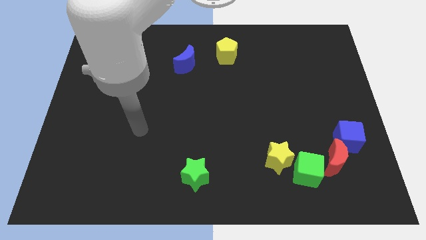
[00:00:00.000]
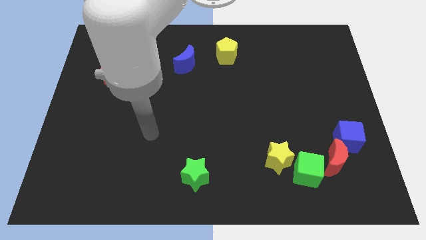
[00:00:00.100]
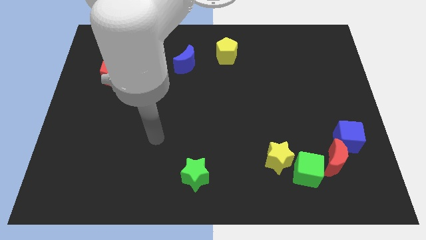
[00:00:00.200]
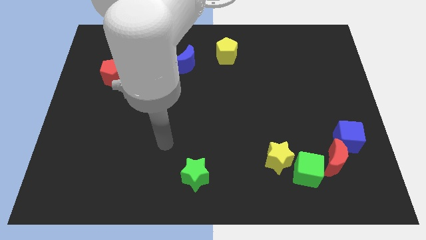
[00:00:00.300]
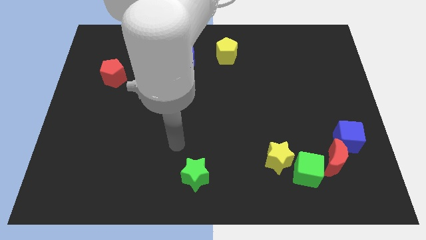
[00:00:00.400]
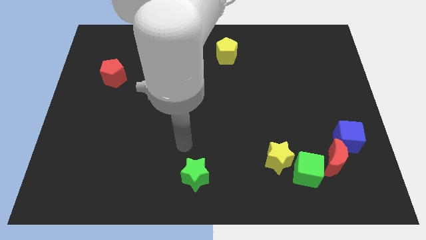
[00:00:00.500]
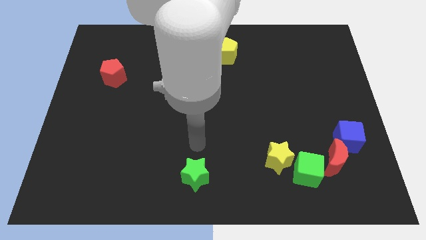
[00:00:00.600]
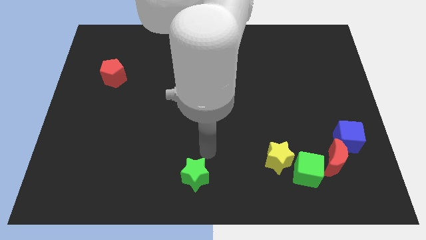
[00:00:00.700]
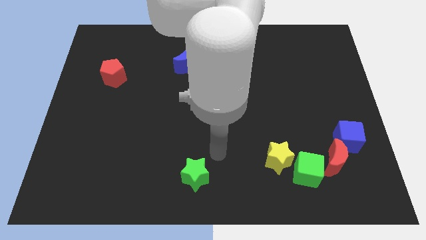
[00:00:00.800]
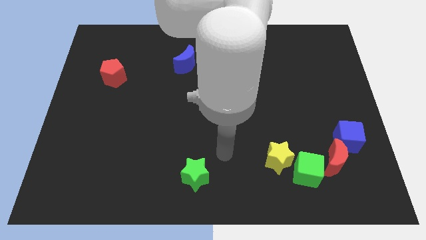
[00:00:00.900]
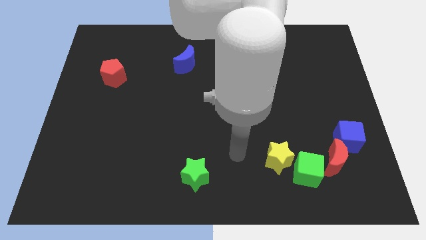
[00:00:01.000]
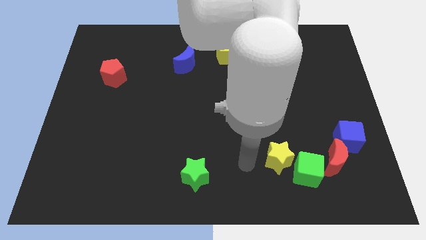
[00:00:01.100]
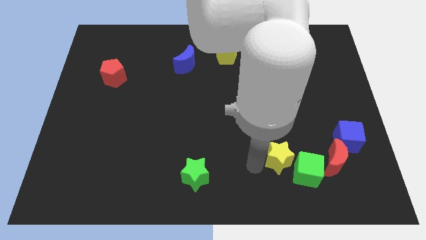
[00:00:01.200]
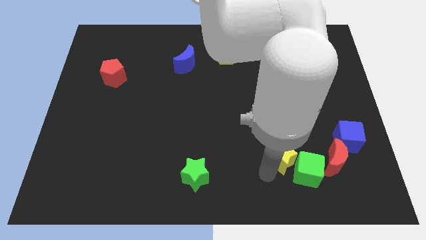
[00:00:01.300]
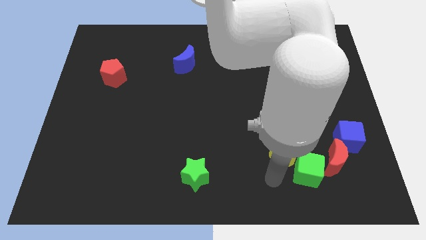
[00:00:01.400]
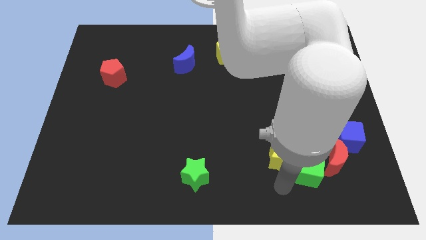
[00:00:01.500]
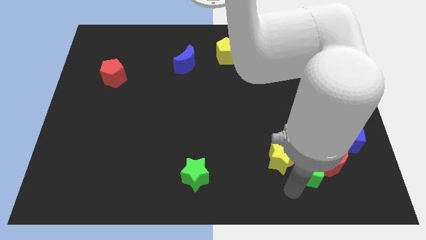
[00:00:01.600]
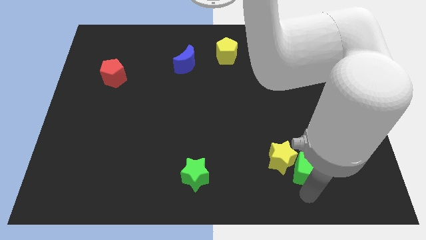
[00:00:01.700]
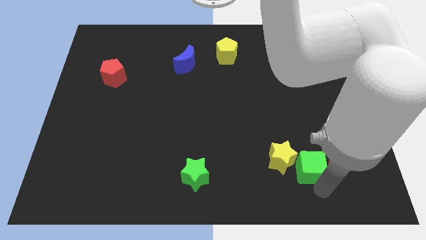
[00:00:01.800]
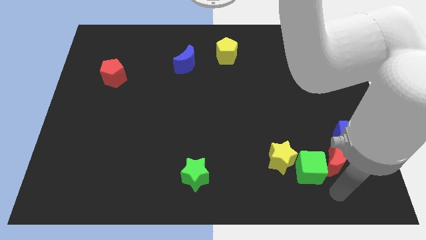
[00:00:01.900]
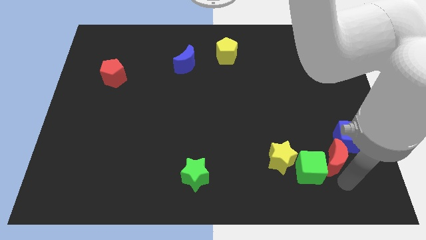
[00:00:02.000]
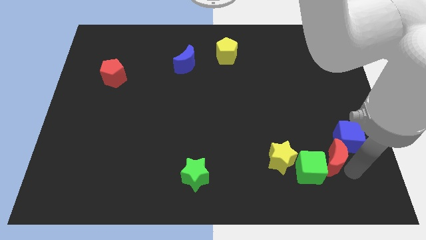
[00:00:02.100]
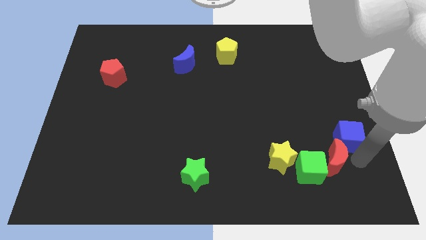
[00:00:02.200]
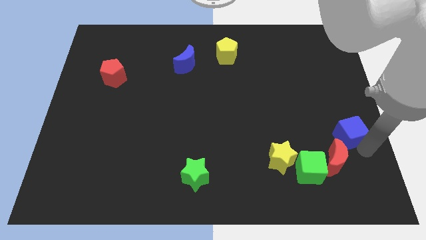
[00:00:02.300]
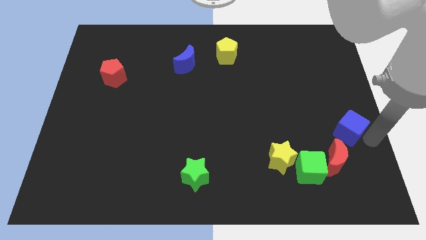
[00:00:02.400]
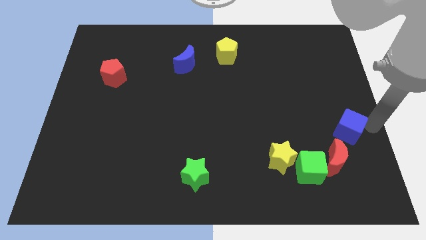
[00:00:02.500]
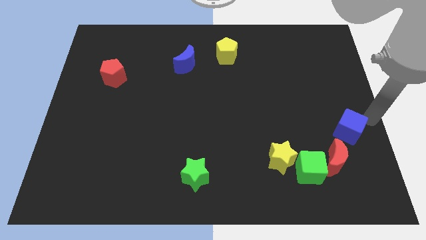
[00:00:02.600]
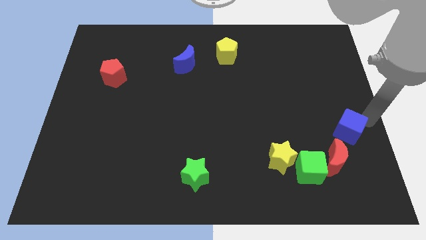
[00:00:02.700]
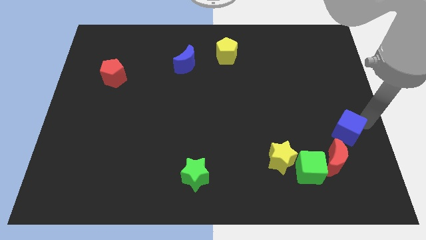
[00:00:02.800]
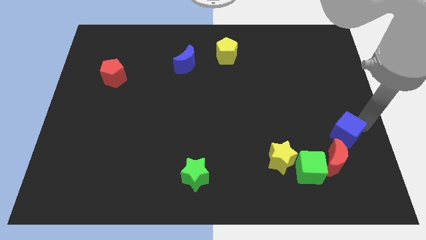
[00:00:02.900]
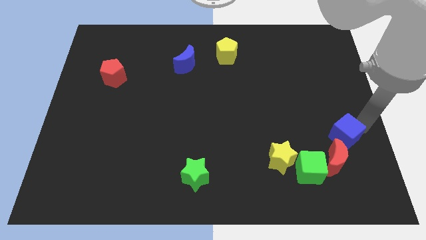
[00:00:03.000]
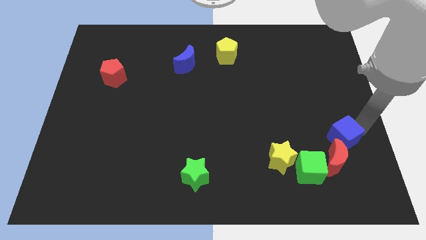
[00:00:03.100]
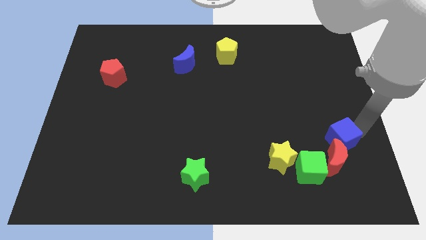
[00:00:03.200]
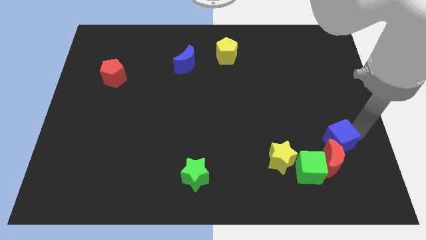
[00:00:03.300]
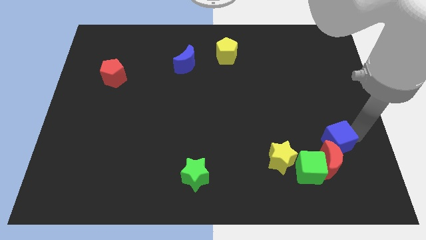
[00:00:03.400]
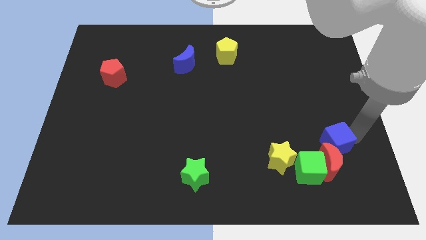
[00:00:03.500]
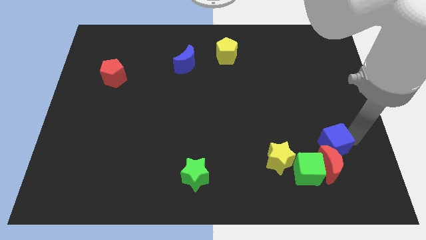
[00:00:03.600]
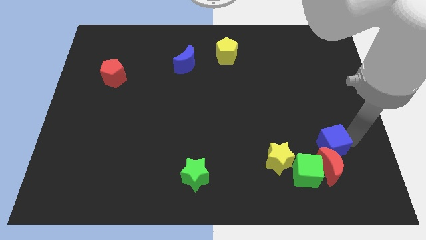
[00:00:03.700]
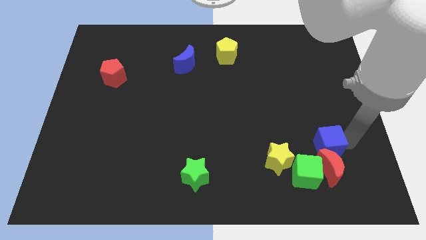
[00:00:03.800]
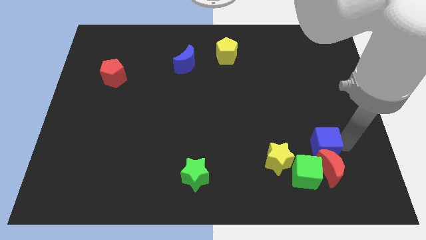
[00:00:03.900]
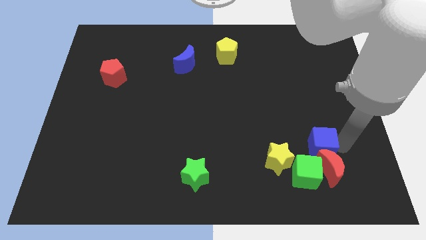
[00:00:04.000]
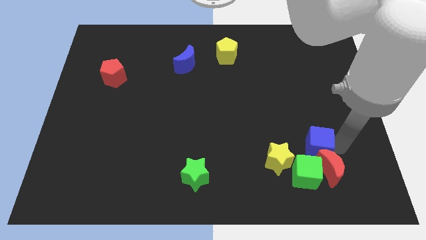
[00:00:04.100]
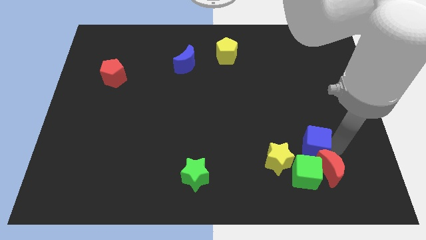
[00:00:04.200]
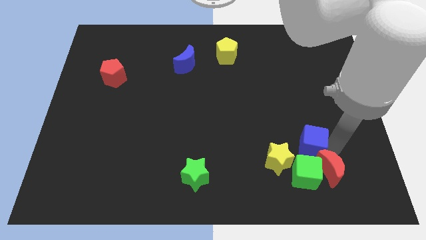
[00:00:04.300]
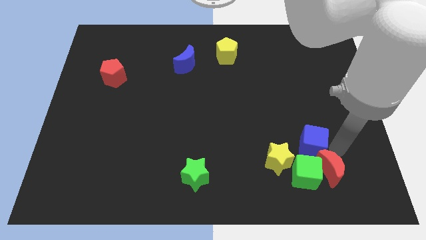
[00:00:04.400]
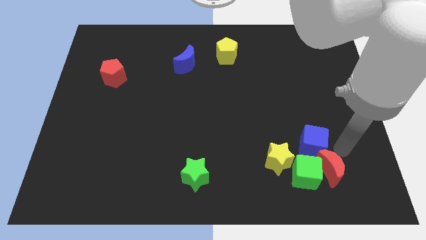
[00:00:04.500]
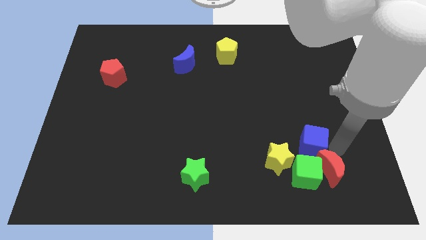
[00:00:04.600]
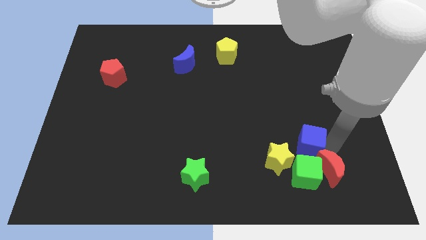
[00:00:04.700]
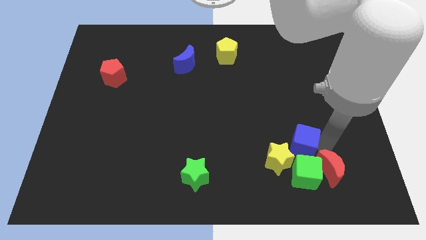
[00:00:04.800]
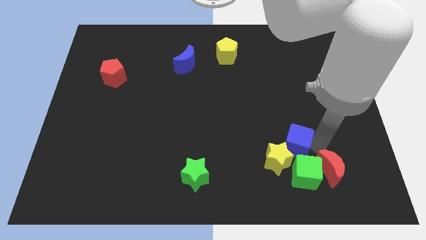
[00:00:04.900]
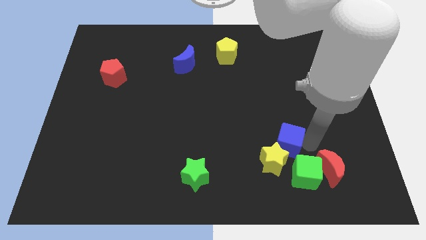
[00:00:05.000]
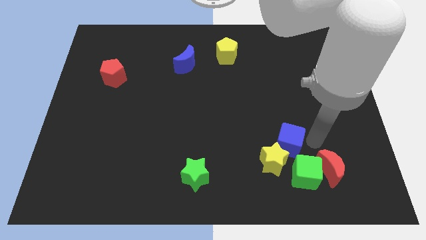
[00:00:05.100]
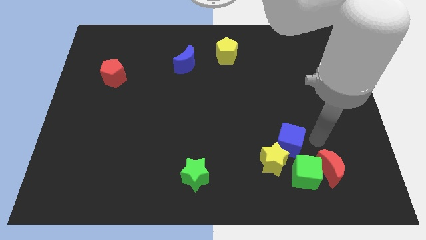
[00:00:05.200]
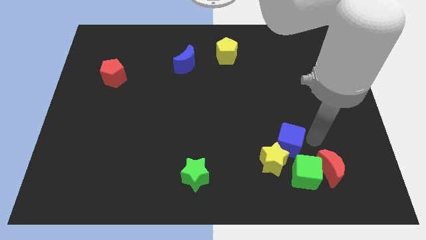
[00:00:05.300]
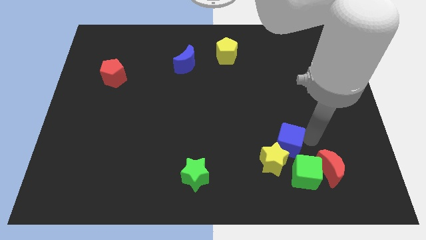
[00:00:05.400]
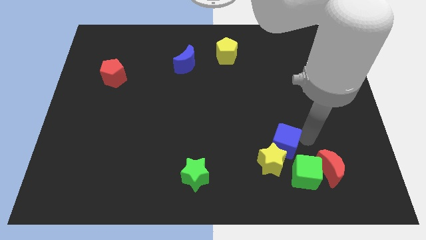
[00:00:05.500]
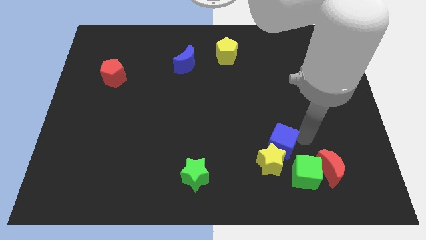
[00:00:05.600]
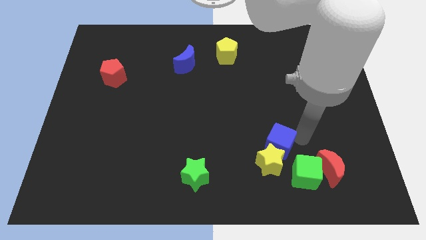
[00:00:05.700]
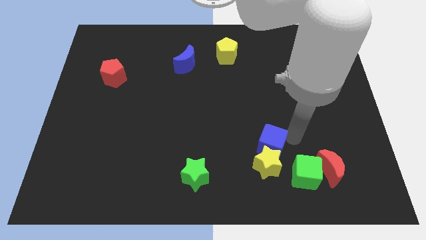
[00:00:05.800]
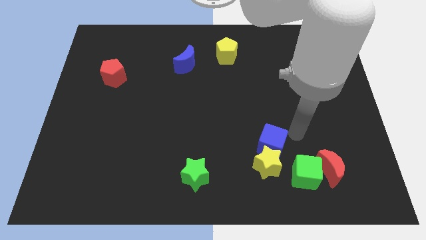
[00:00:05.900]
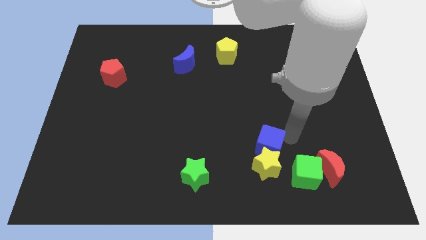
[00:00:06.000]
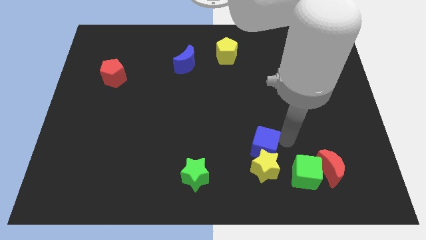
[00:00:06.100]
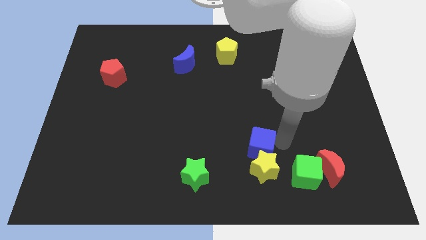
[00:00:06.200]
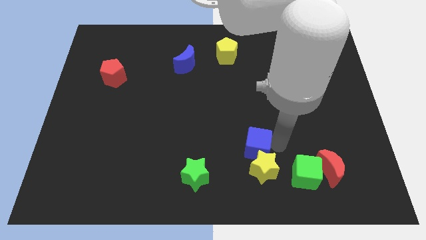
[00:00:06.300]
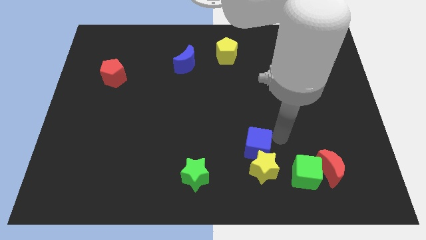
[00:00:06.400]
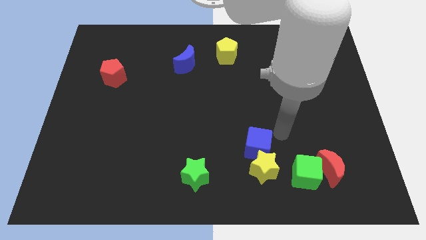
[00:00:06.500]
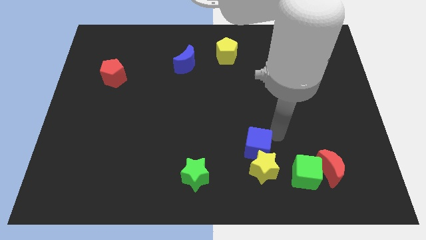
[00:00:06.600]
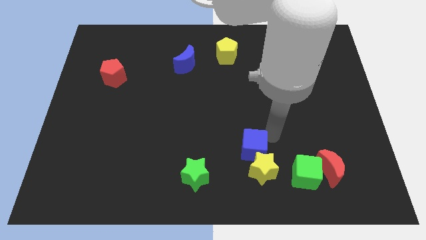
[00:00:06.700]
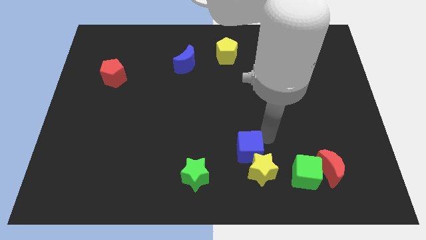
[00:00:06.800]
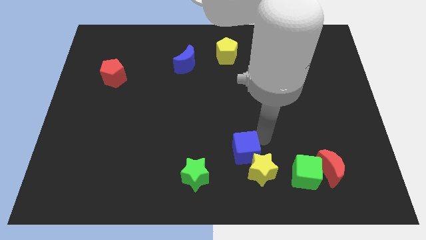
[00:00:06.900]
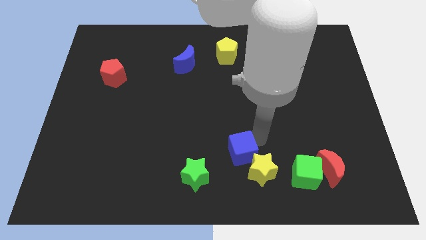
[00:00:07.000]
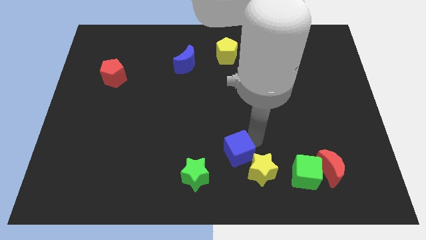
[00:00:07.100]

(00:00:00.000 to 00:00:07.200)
push the blue cube left of the yellow star

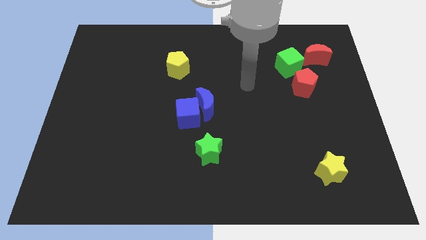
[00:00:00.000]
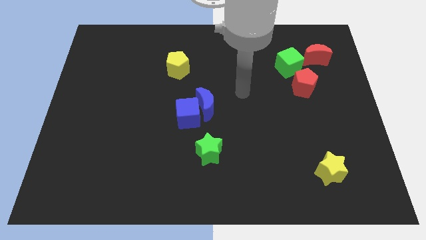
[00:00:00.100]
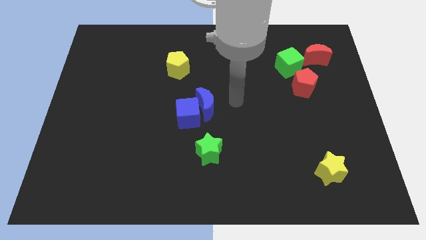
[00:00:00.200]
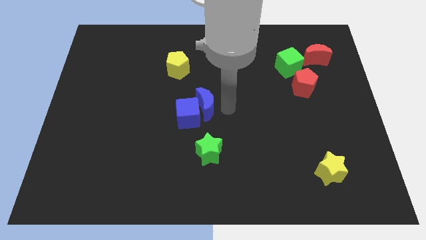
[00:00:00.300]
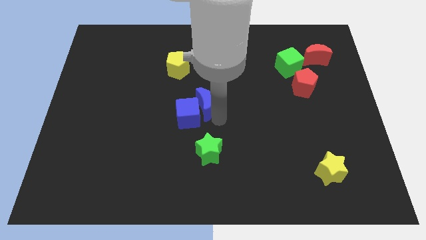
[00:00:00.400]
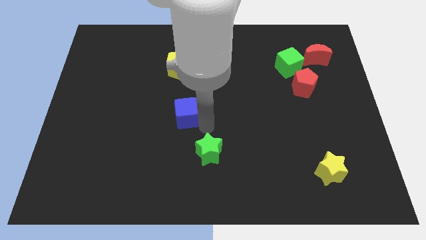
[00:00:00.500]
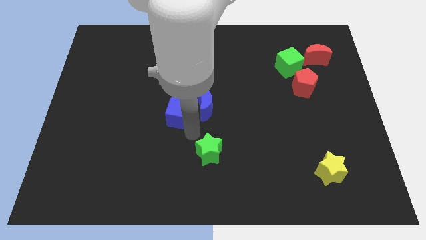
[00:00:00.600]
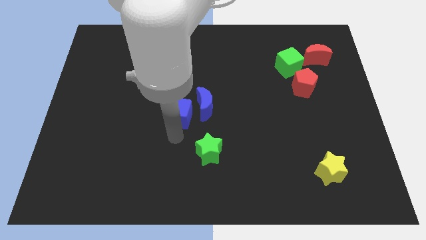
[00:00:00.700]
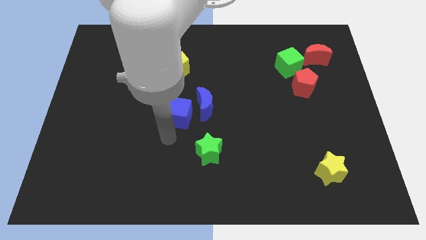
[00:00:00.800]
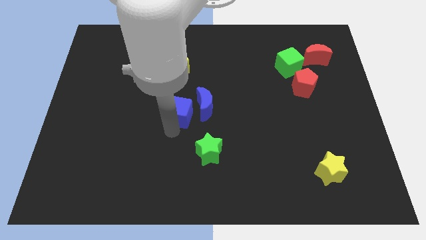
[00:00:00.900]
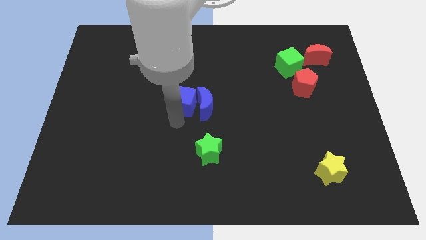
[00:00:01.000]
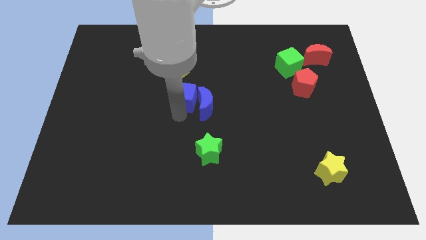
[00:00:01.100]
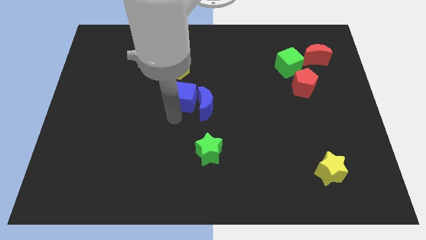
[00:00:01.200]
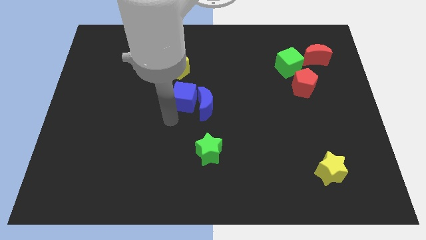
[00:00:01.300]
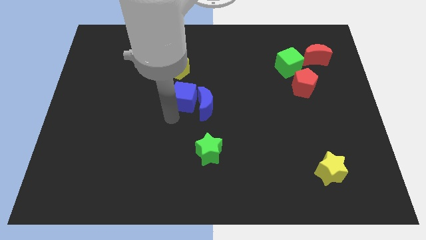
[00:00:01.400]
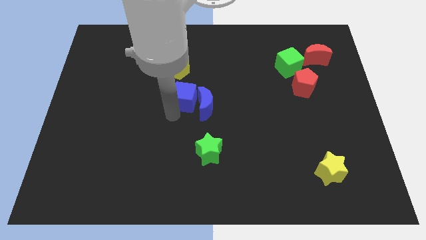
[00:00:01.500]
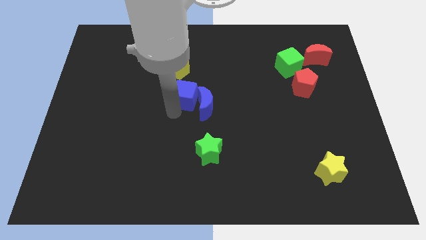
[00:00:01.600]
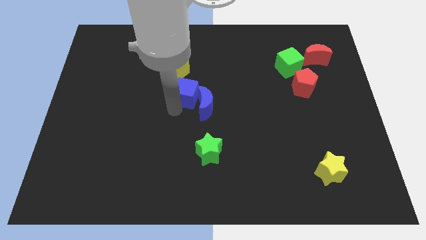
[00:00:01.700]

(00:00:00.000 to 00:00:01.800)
move the blue cube diagonally down and to the right of the yellow pentagon
